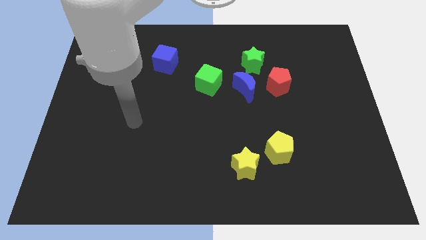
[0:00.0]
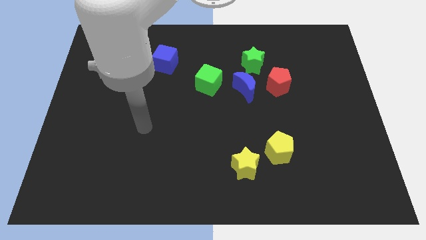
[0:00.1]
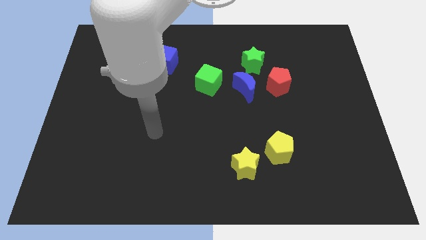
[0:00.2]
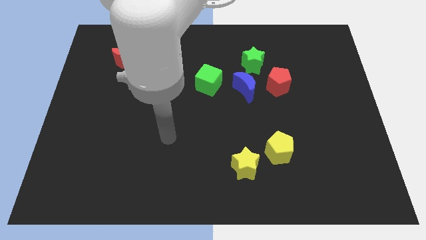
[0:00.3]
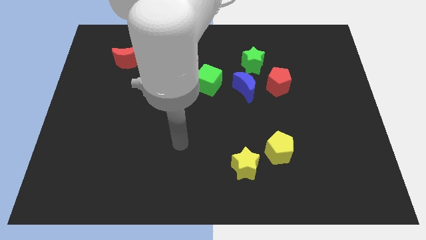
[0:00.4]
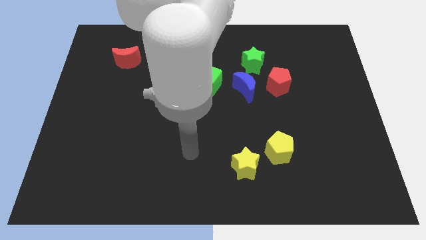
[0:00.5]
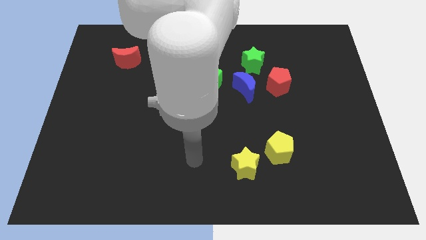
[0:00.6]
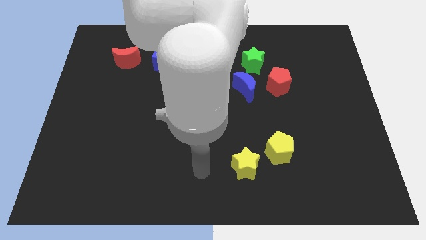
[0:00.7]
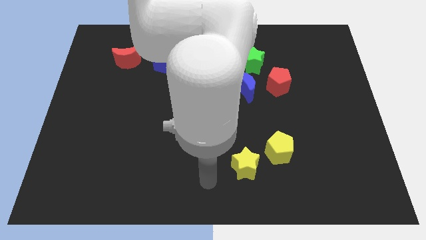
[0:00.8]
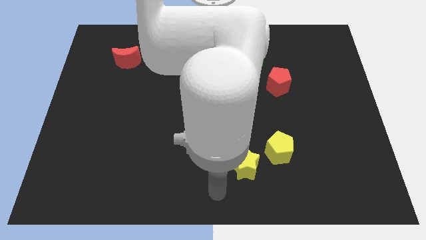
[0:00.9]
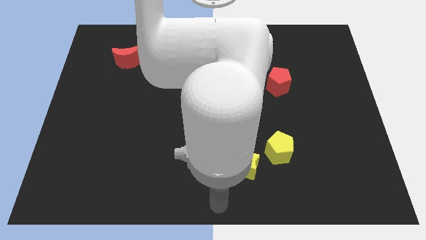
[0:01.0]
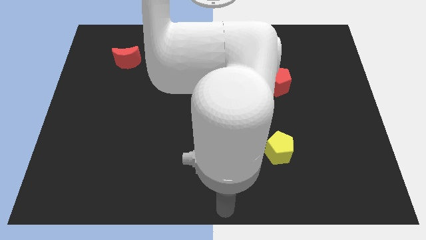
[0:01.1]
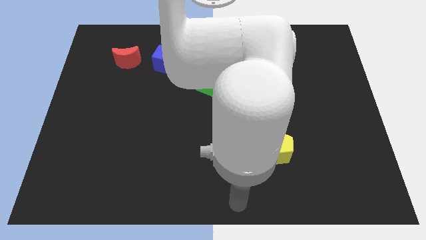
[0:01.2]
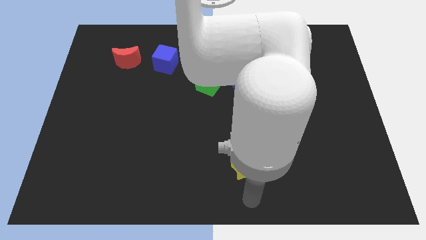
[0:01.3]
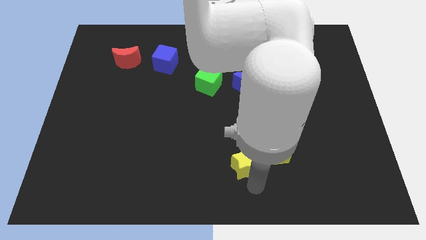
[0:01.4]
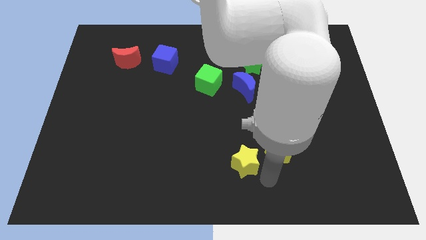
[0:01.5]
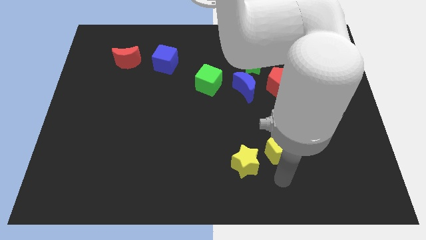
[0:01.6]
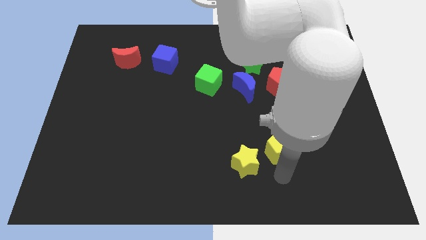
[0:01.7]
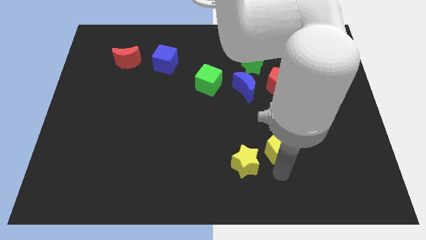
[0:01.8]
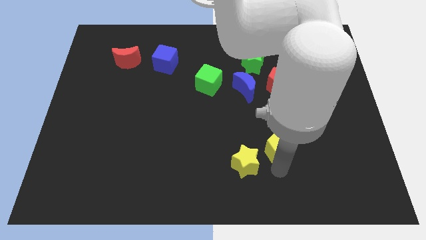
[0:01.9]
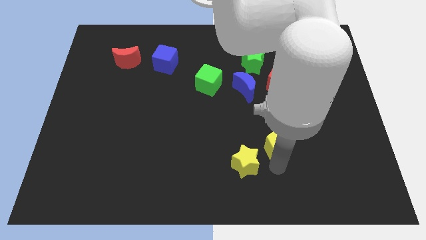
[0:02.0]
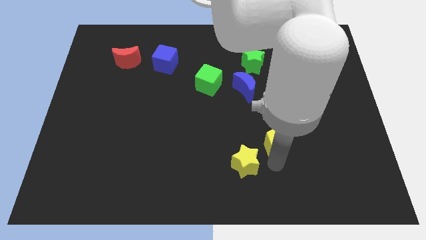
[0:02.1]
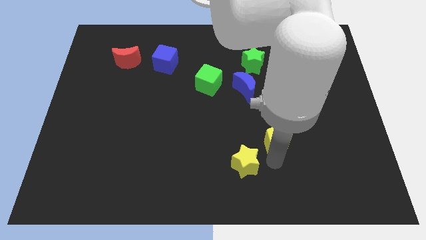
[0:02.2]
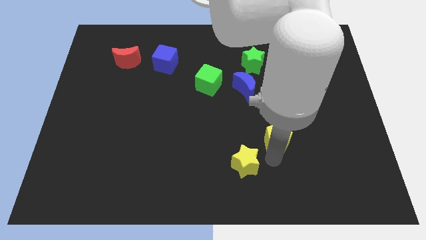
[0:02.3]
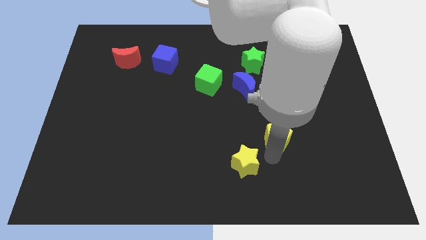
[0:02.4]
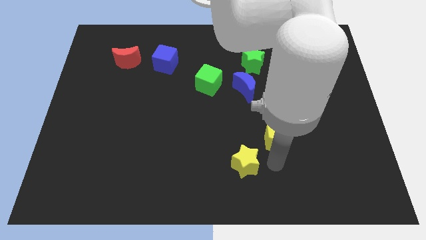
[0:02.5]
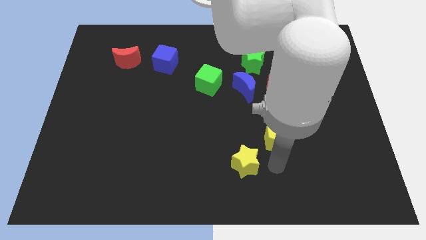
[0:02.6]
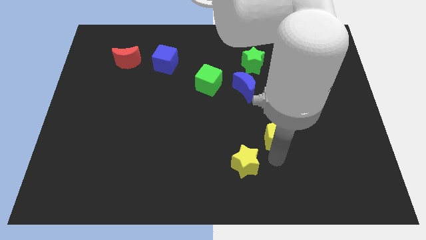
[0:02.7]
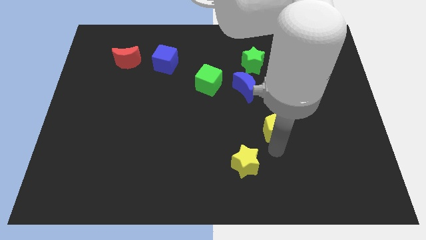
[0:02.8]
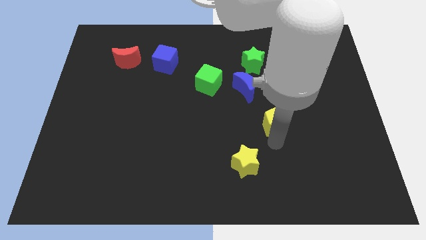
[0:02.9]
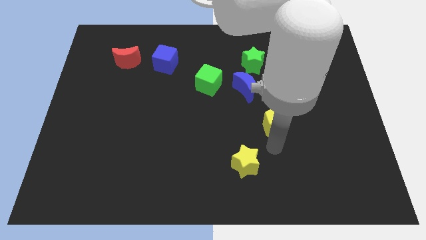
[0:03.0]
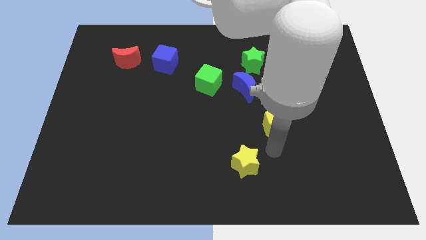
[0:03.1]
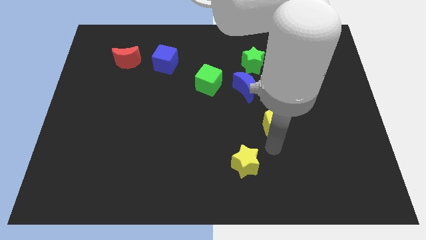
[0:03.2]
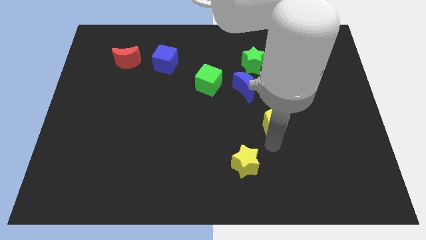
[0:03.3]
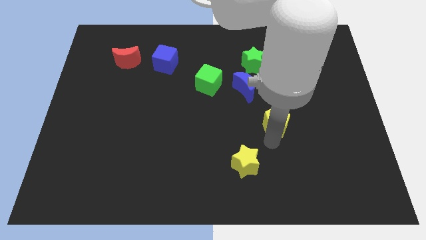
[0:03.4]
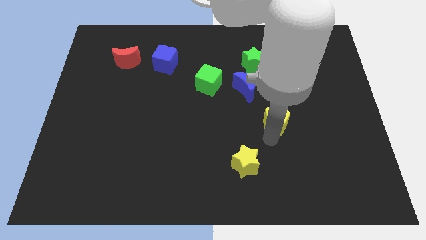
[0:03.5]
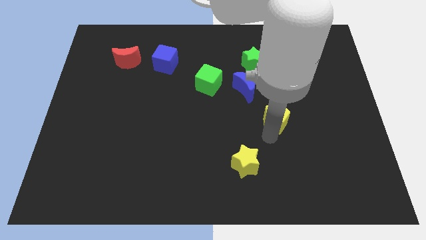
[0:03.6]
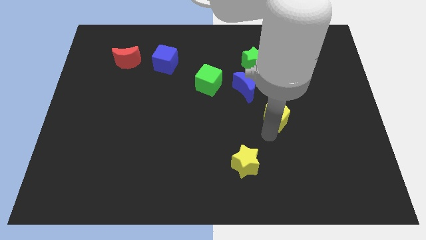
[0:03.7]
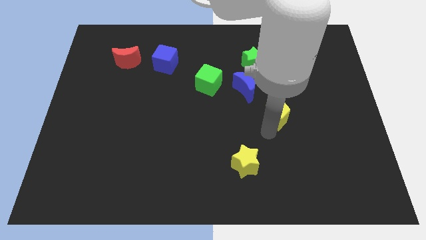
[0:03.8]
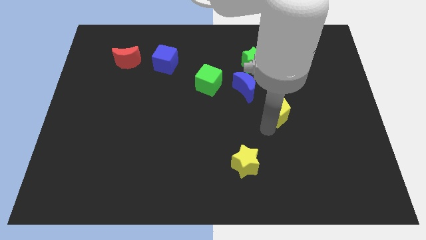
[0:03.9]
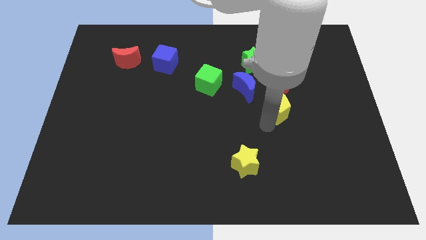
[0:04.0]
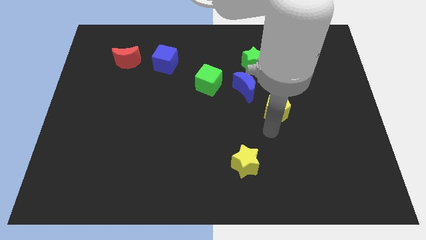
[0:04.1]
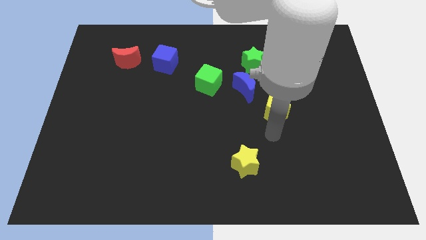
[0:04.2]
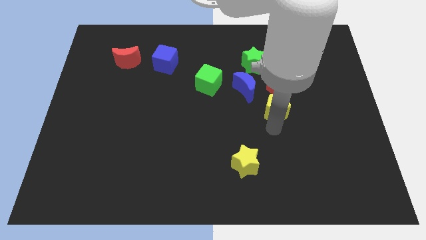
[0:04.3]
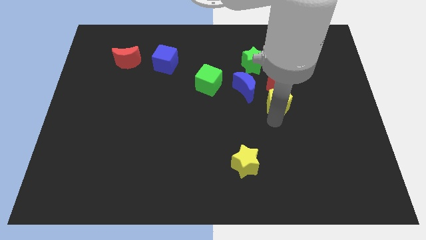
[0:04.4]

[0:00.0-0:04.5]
slide the yellow pentagon next to the red pentagon

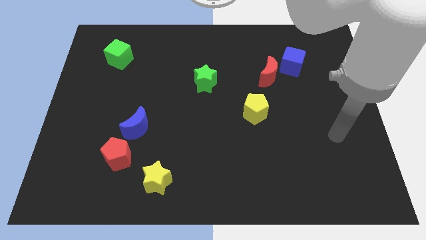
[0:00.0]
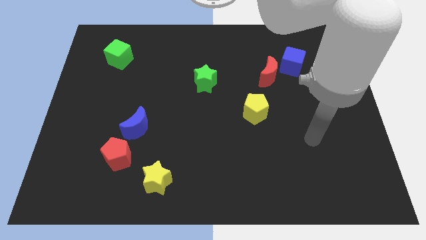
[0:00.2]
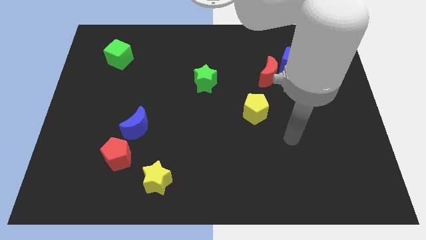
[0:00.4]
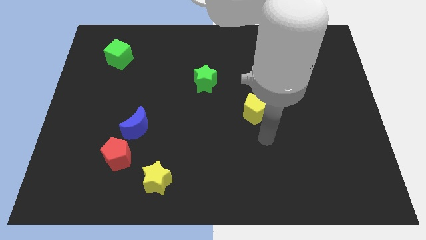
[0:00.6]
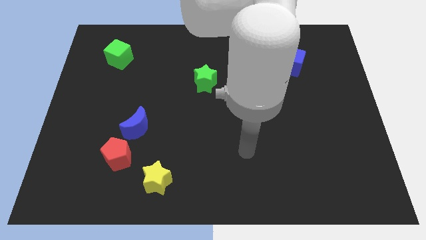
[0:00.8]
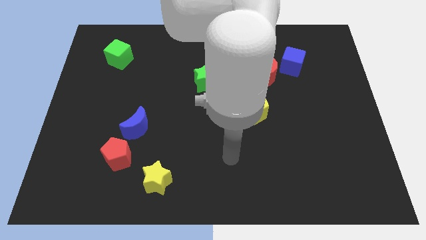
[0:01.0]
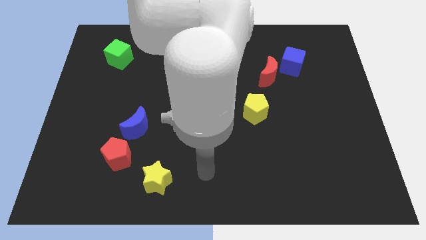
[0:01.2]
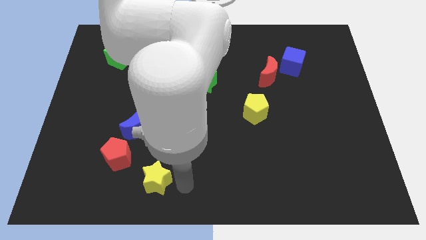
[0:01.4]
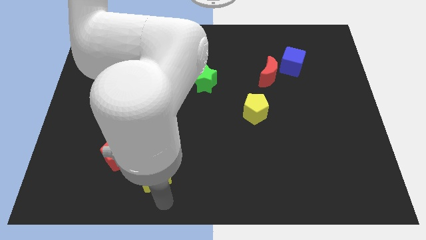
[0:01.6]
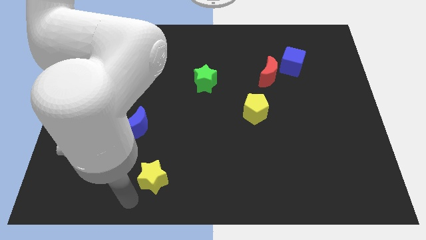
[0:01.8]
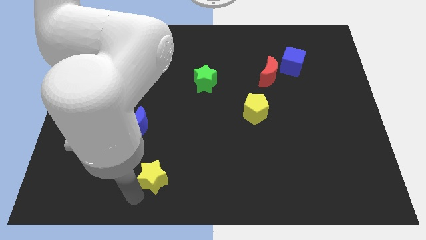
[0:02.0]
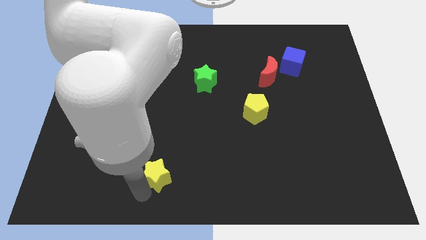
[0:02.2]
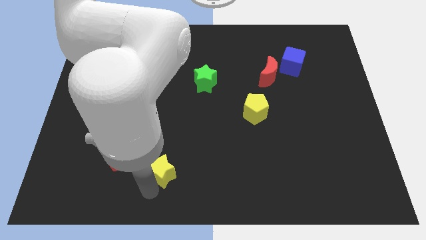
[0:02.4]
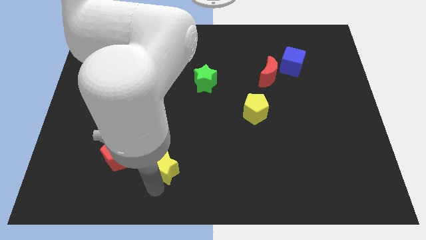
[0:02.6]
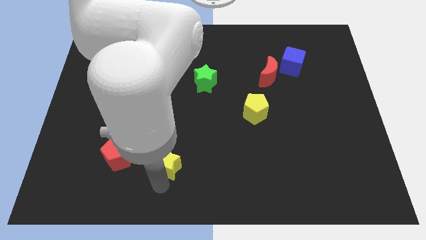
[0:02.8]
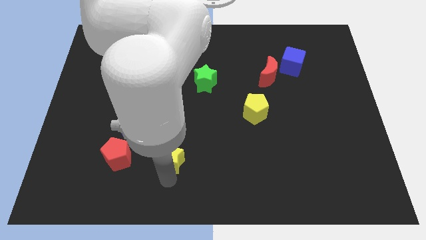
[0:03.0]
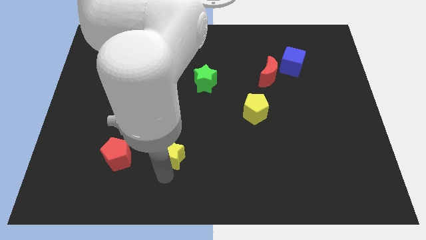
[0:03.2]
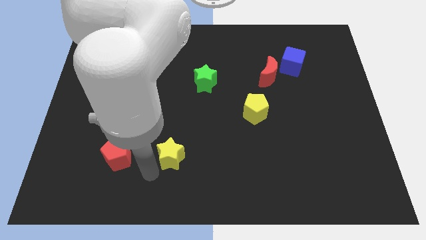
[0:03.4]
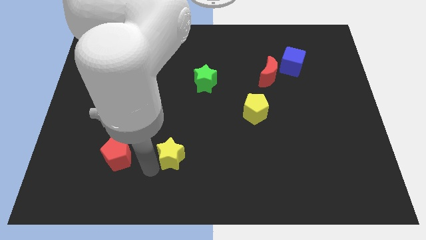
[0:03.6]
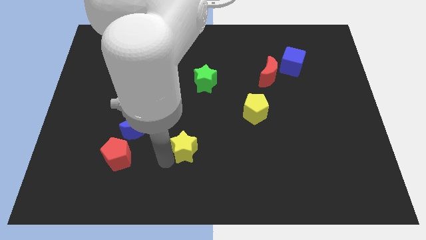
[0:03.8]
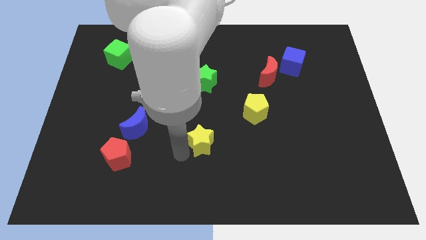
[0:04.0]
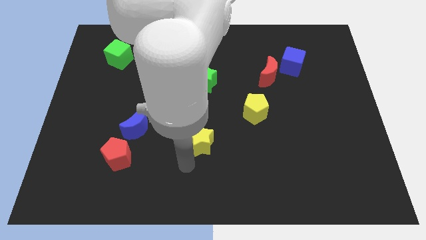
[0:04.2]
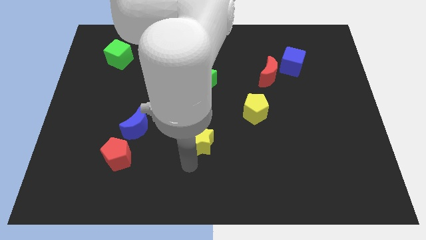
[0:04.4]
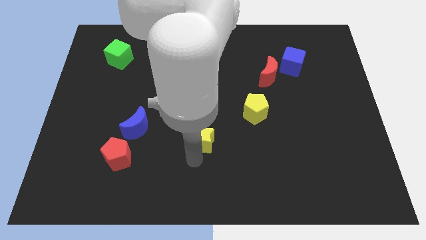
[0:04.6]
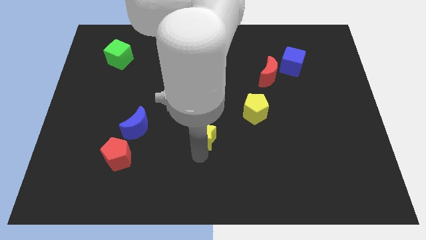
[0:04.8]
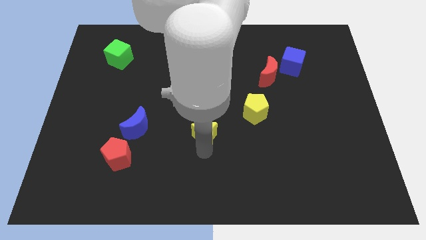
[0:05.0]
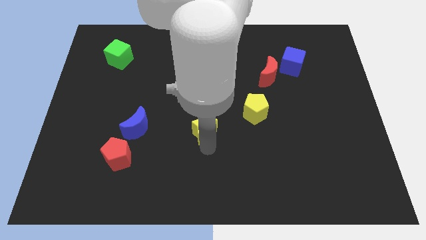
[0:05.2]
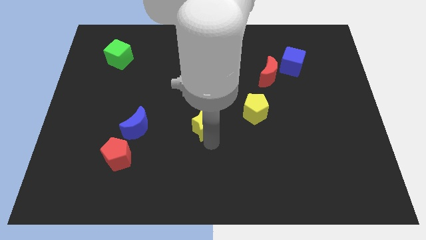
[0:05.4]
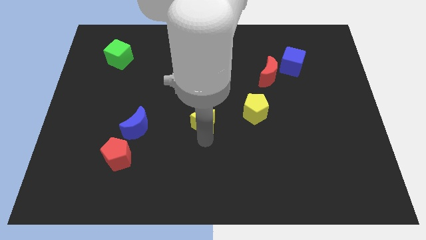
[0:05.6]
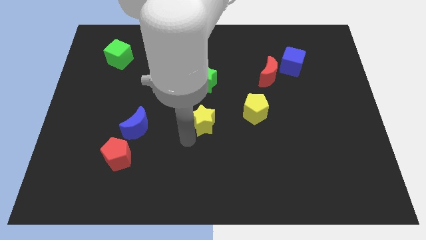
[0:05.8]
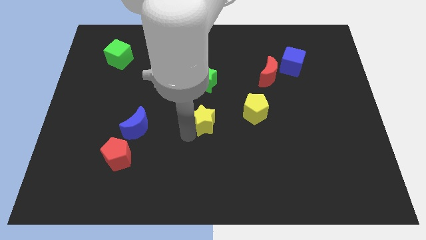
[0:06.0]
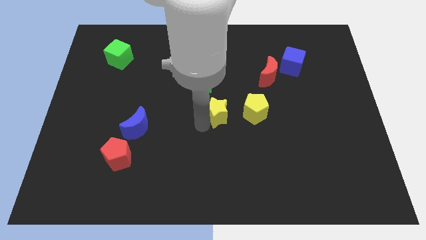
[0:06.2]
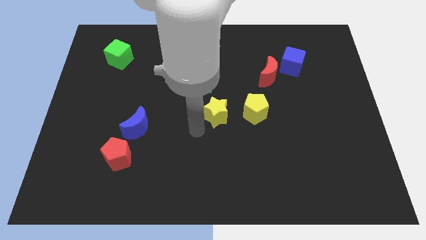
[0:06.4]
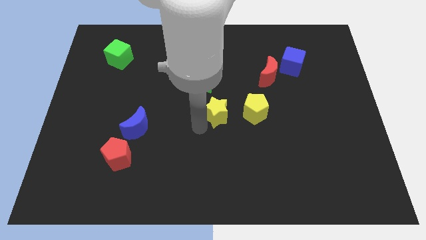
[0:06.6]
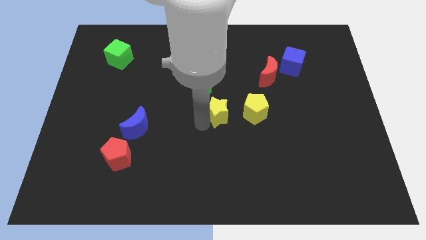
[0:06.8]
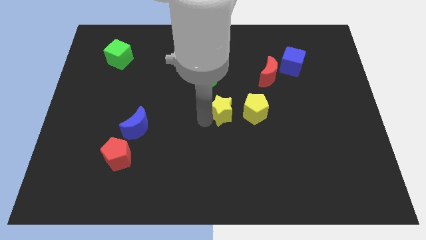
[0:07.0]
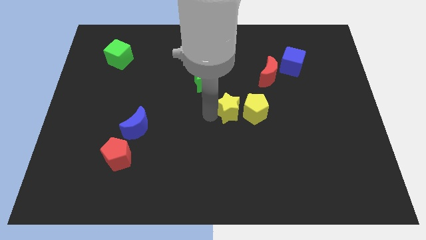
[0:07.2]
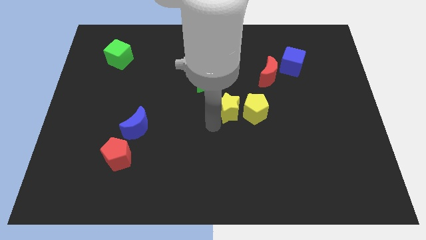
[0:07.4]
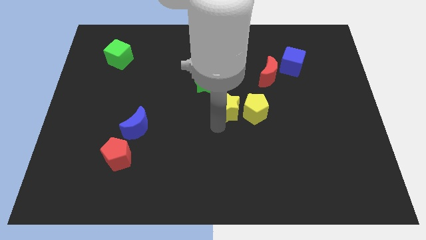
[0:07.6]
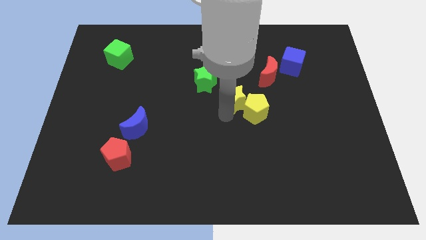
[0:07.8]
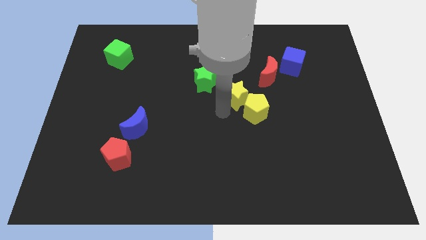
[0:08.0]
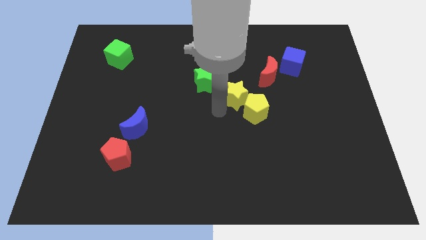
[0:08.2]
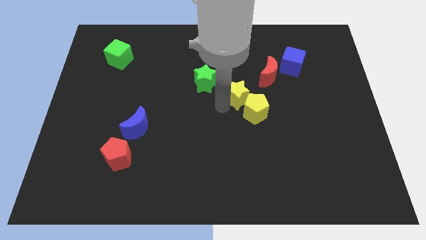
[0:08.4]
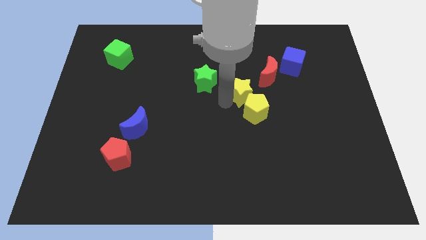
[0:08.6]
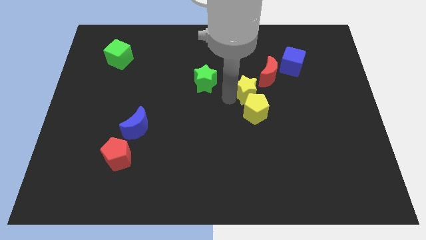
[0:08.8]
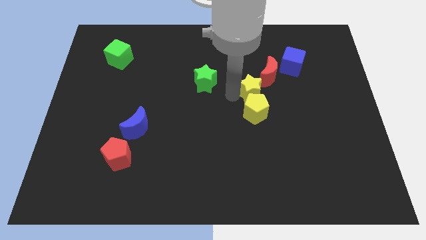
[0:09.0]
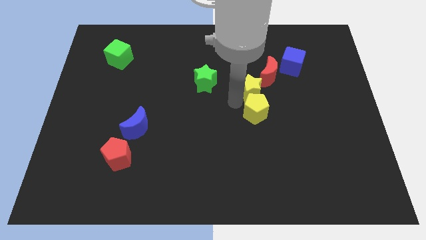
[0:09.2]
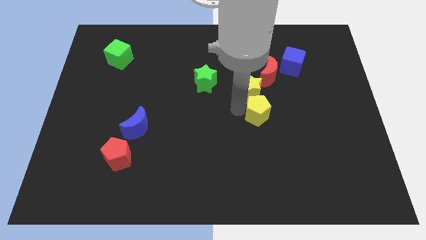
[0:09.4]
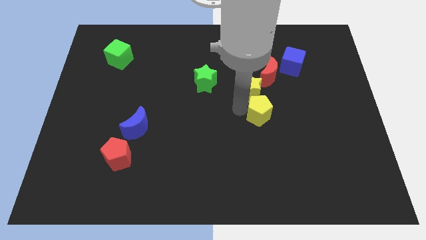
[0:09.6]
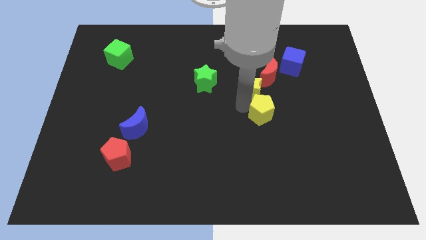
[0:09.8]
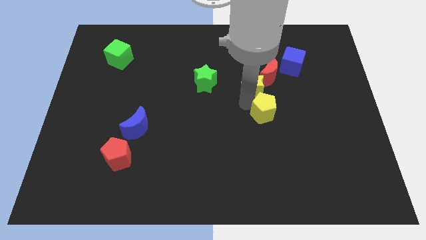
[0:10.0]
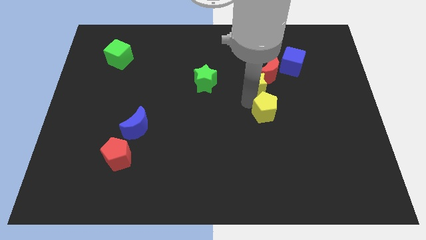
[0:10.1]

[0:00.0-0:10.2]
slide the yellow star close to the red moon
